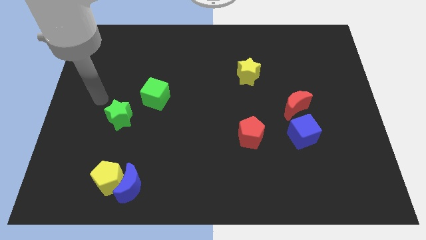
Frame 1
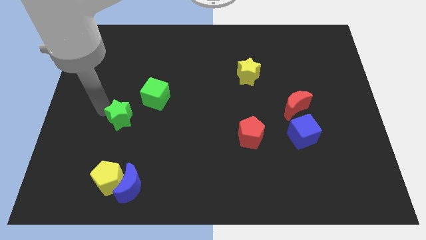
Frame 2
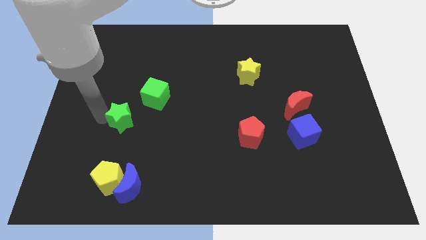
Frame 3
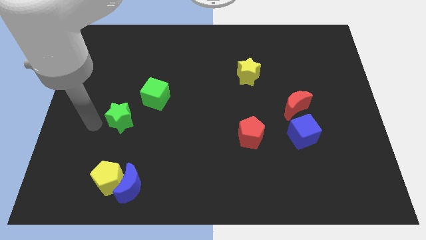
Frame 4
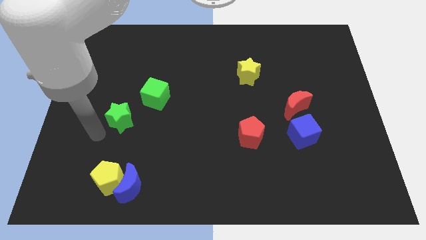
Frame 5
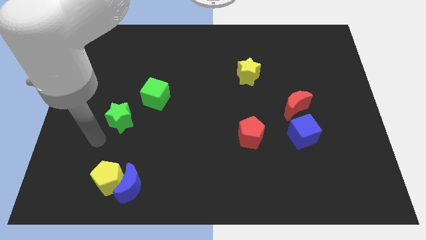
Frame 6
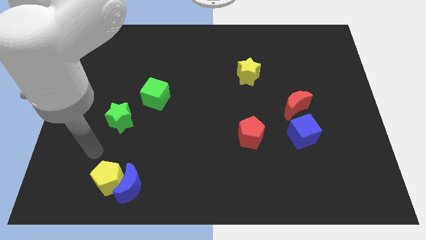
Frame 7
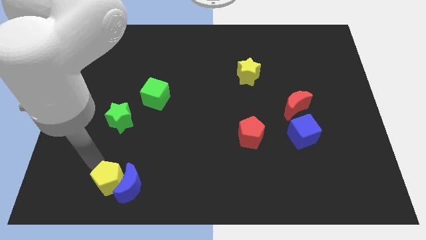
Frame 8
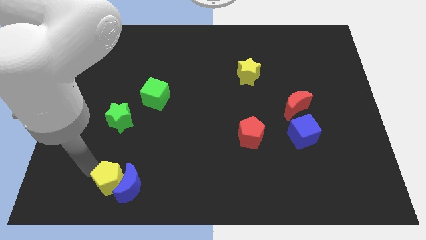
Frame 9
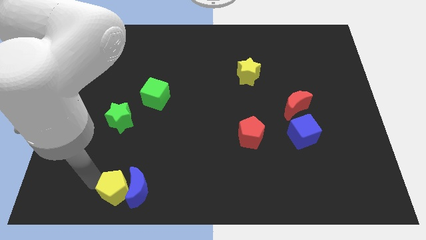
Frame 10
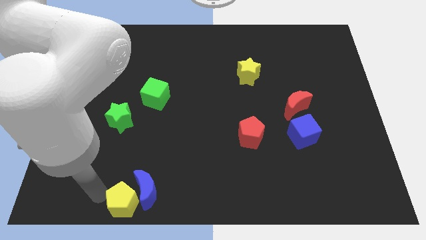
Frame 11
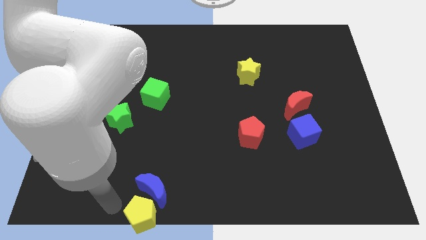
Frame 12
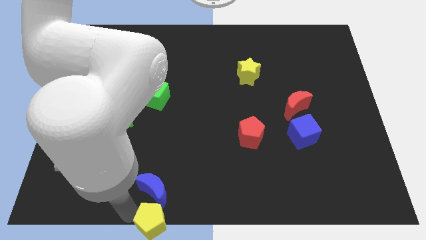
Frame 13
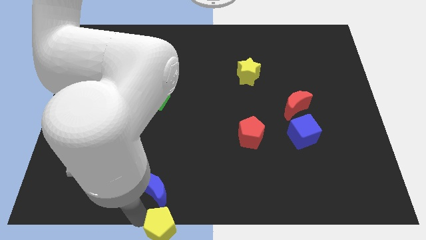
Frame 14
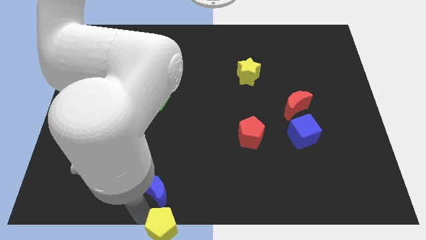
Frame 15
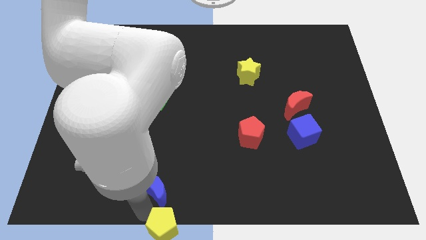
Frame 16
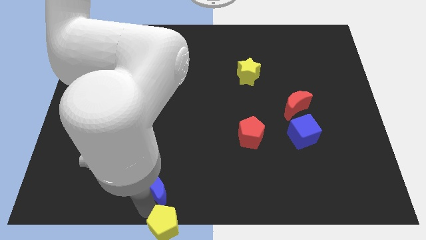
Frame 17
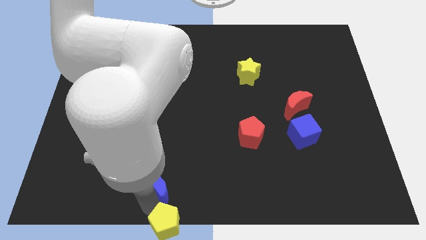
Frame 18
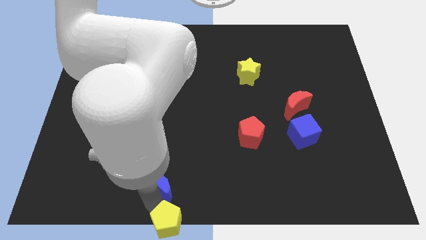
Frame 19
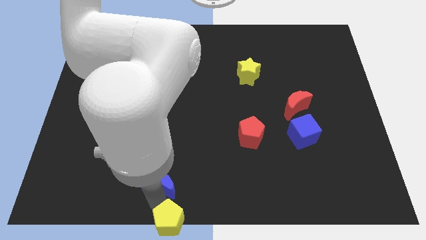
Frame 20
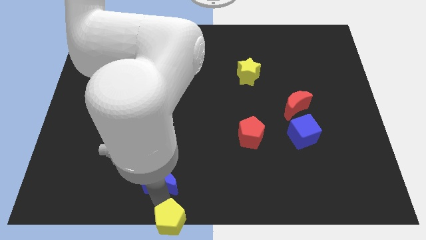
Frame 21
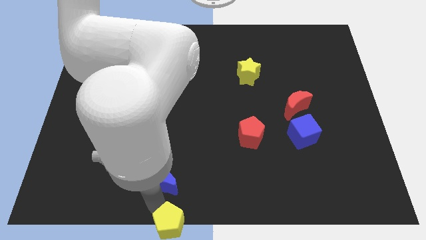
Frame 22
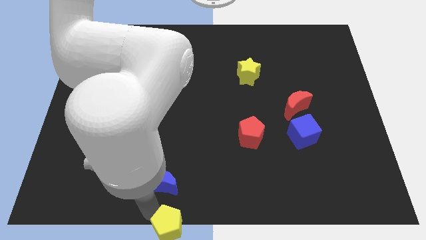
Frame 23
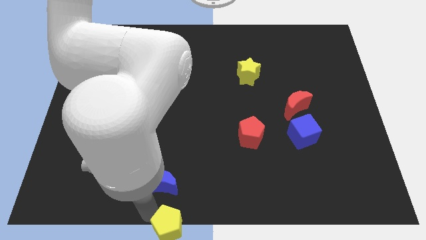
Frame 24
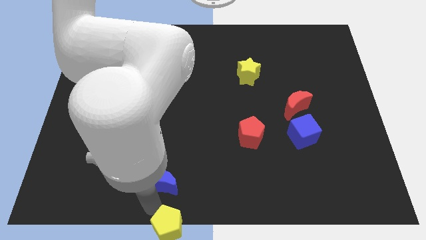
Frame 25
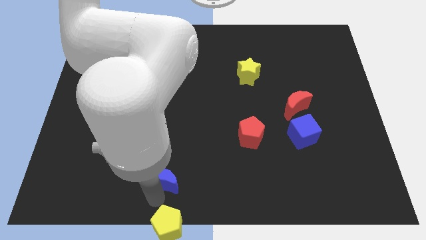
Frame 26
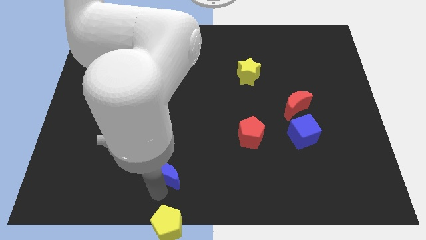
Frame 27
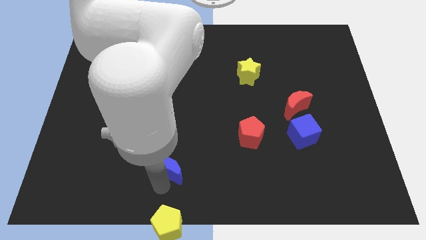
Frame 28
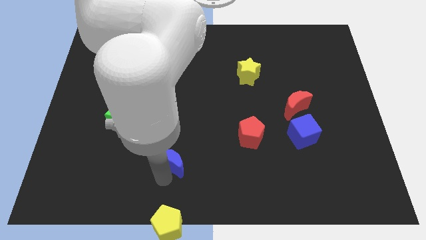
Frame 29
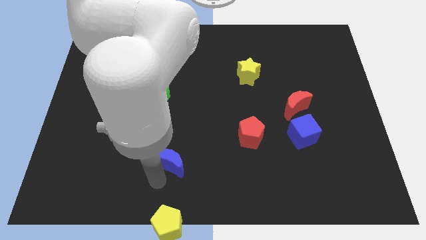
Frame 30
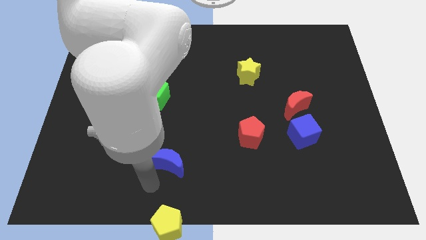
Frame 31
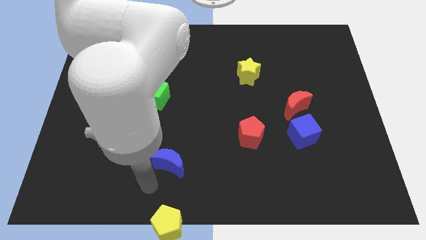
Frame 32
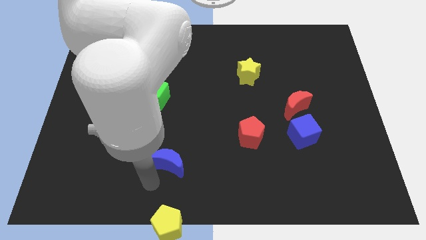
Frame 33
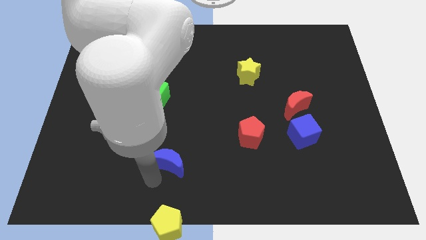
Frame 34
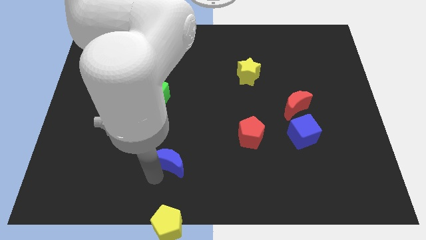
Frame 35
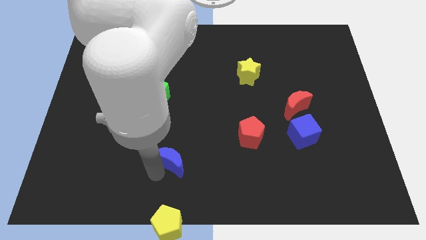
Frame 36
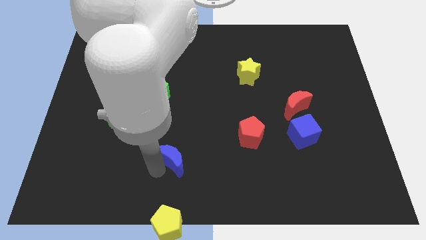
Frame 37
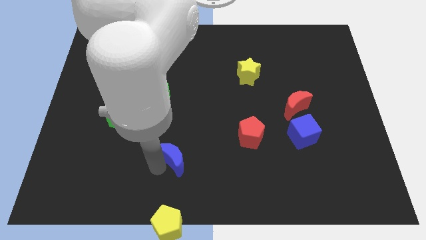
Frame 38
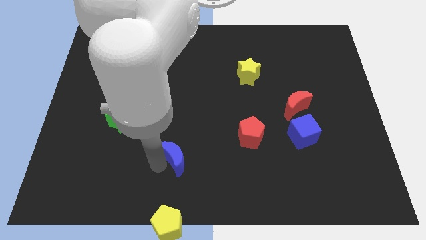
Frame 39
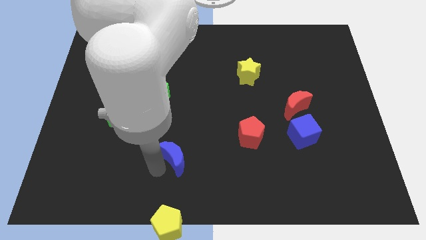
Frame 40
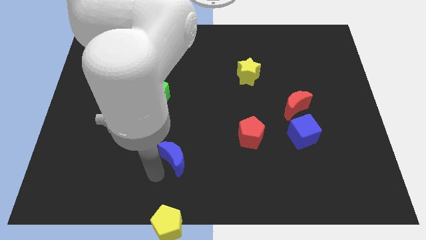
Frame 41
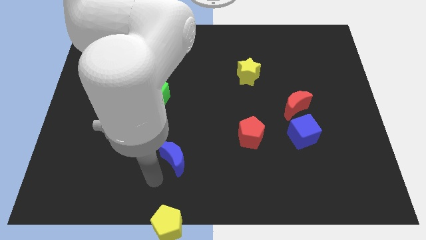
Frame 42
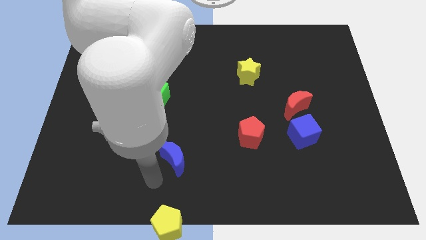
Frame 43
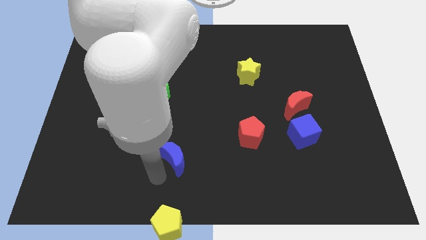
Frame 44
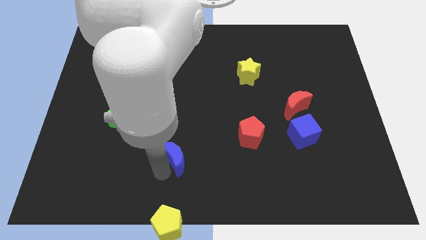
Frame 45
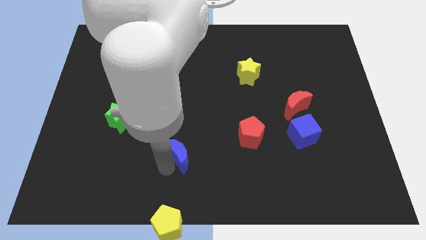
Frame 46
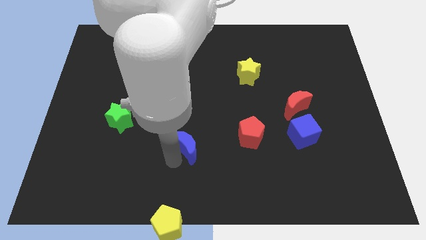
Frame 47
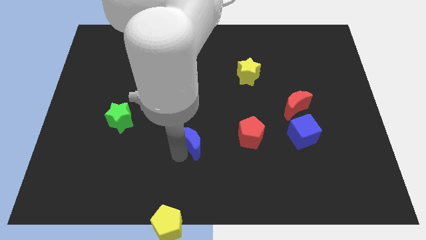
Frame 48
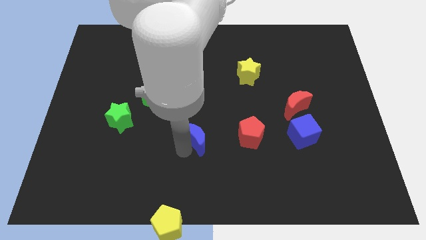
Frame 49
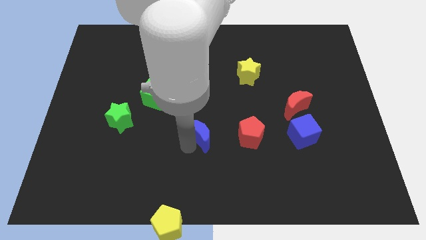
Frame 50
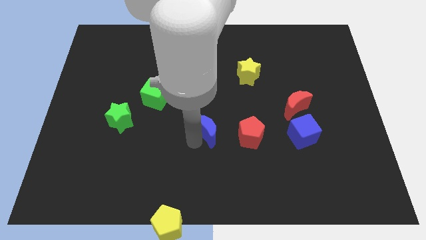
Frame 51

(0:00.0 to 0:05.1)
push the blue moon upwards and then to the right

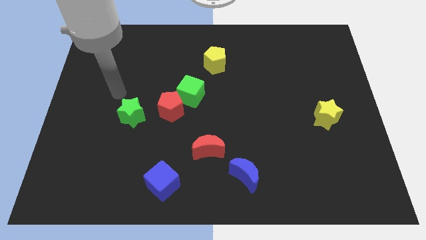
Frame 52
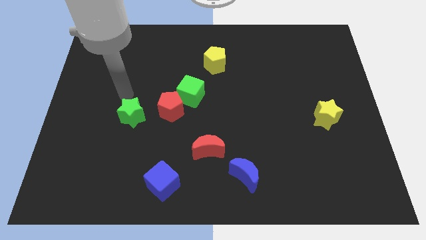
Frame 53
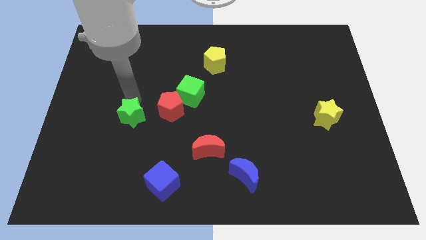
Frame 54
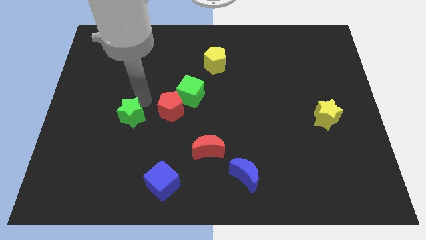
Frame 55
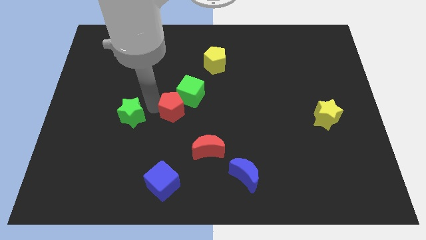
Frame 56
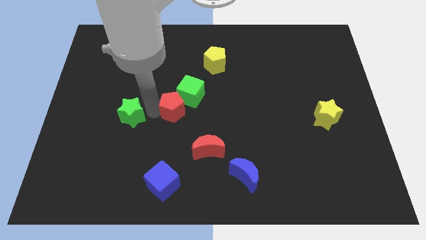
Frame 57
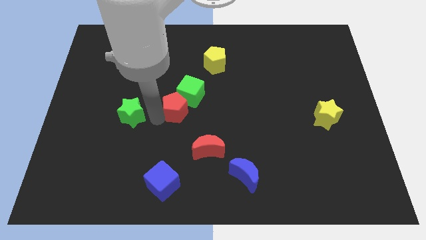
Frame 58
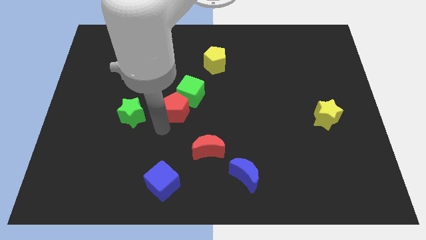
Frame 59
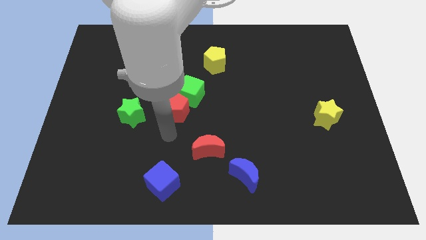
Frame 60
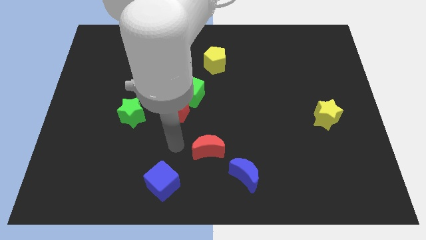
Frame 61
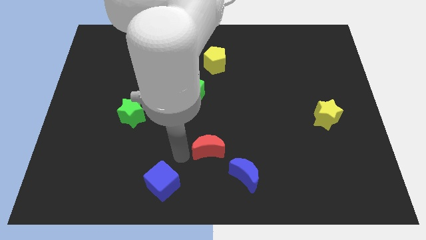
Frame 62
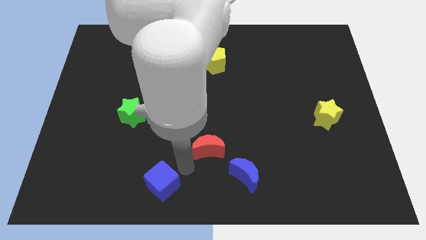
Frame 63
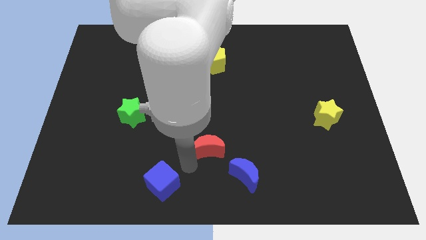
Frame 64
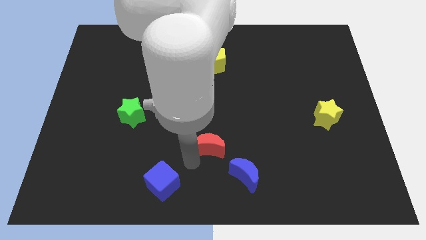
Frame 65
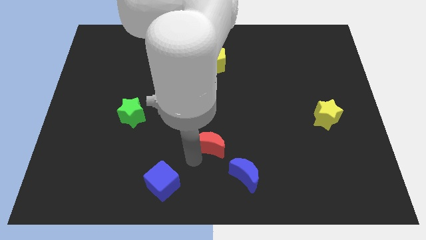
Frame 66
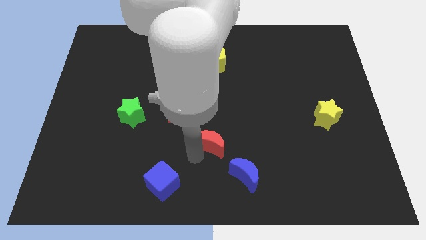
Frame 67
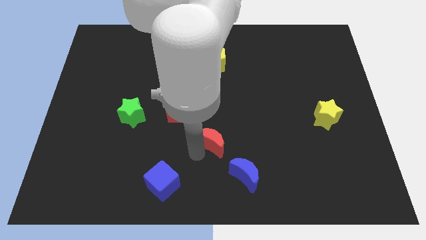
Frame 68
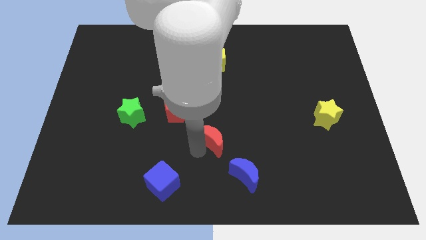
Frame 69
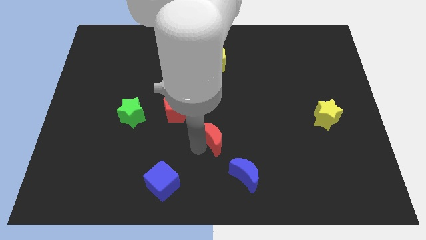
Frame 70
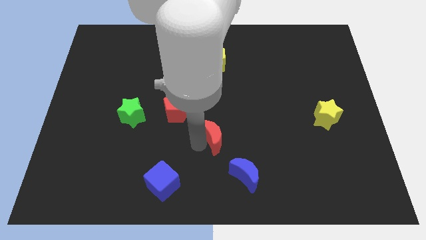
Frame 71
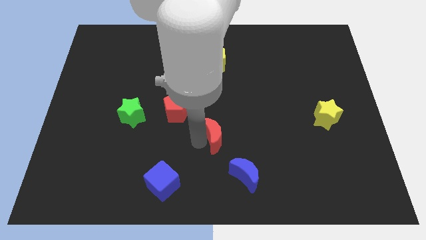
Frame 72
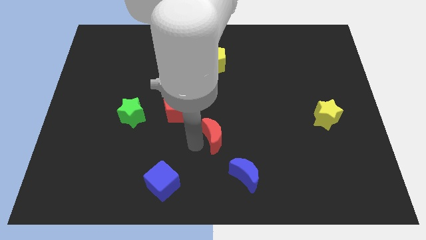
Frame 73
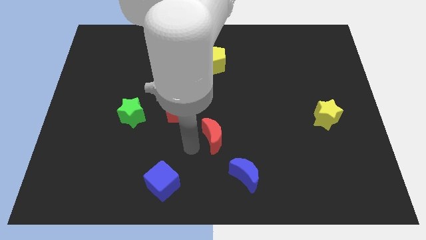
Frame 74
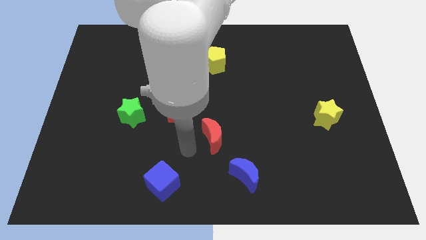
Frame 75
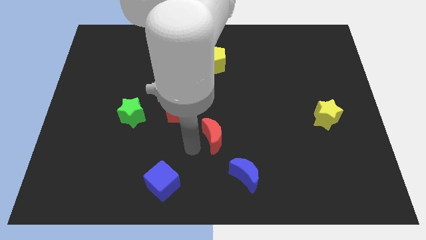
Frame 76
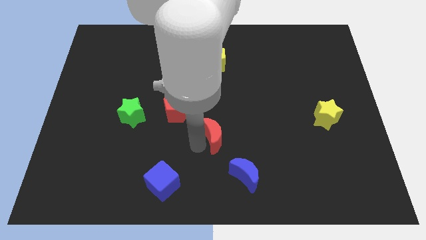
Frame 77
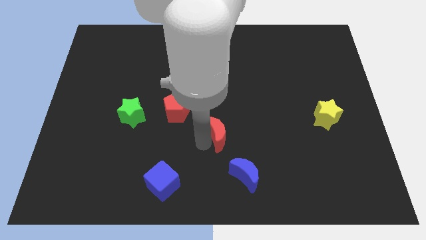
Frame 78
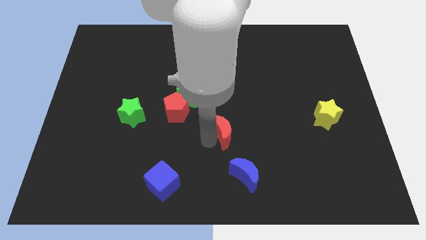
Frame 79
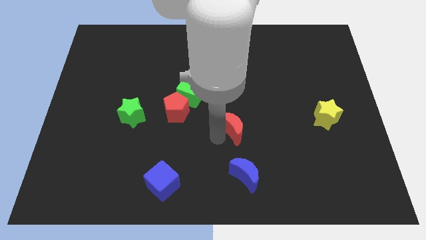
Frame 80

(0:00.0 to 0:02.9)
slightly move the red moon up and right

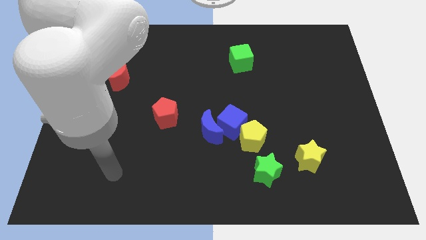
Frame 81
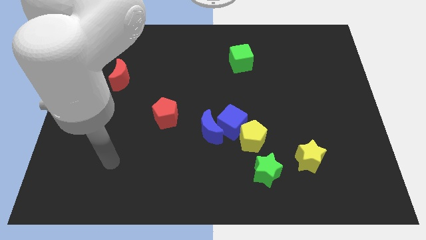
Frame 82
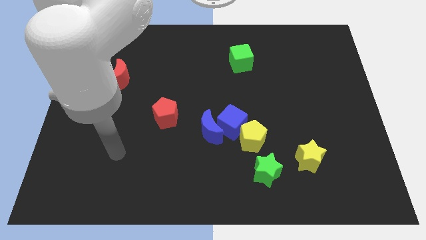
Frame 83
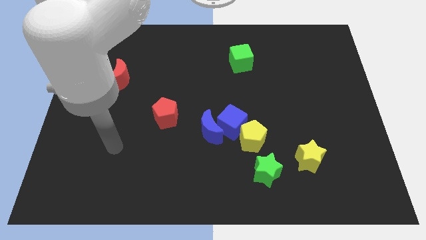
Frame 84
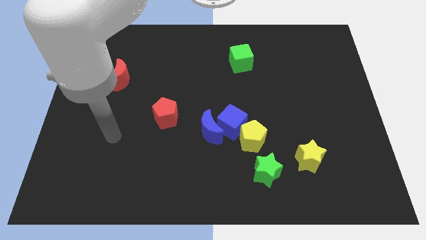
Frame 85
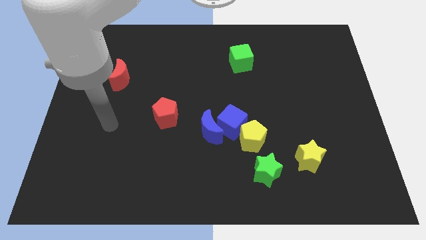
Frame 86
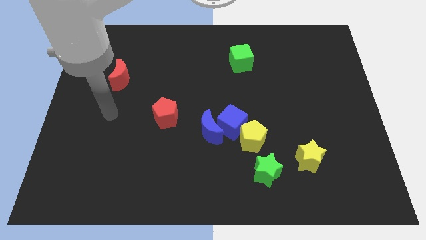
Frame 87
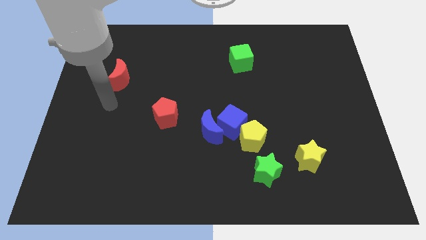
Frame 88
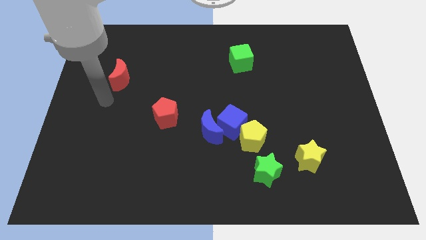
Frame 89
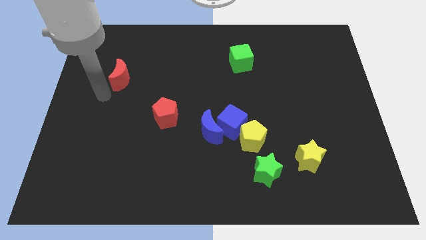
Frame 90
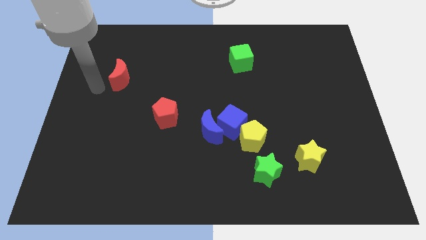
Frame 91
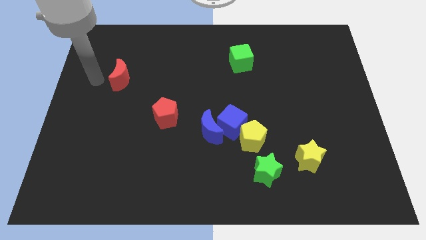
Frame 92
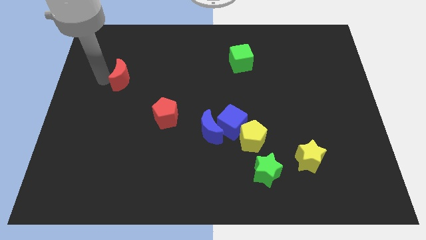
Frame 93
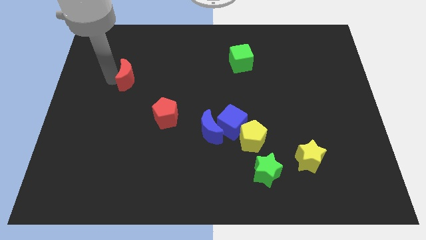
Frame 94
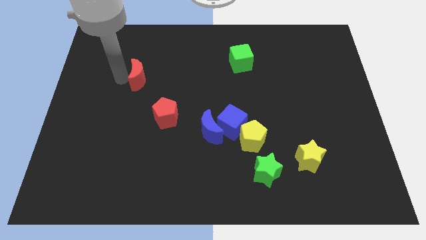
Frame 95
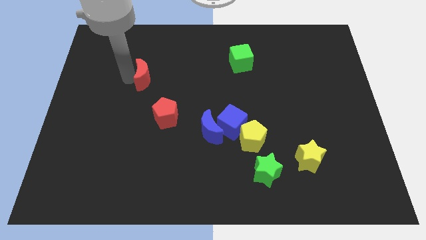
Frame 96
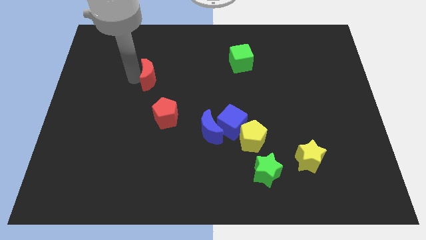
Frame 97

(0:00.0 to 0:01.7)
move the red moon to the right slightly
